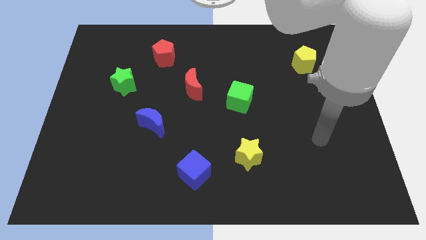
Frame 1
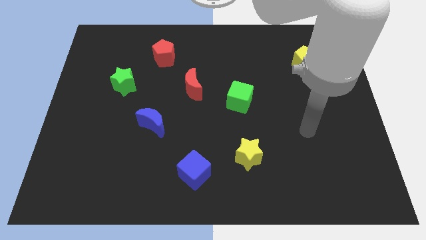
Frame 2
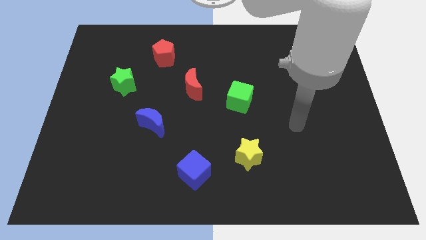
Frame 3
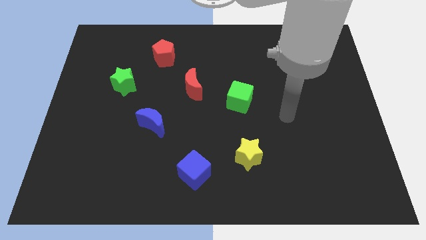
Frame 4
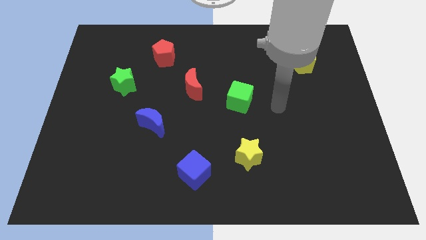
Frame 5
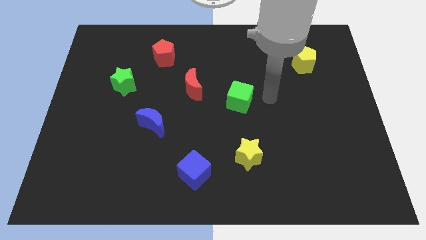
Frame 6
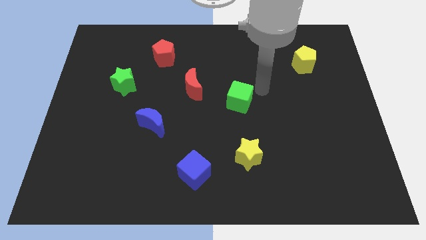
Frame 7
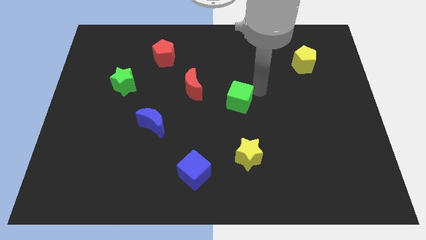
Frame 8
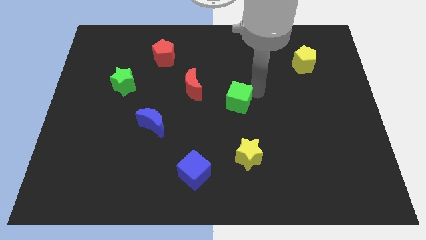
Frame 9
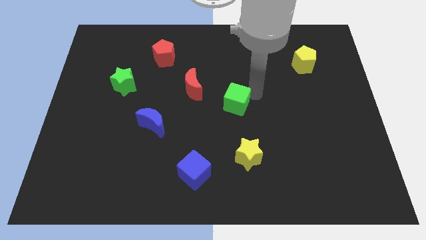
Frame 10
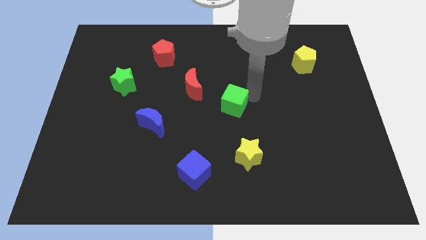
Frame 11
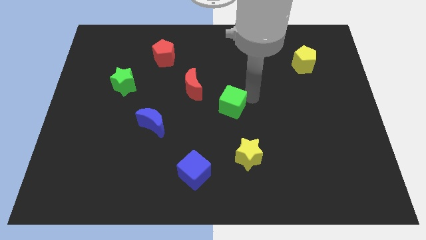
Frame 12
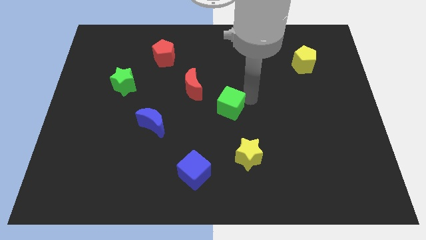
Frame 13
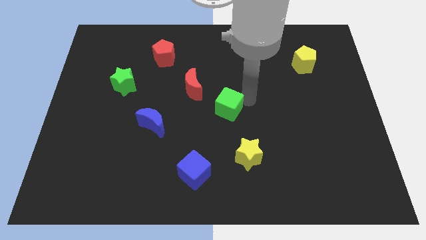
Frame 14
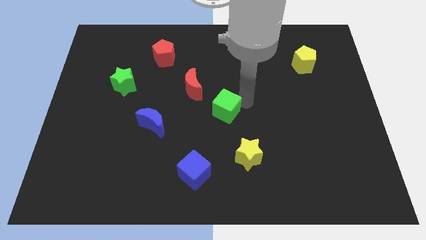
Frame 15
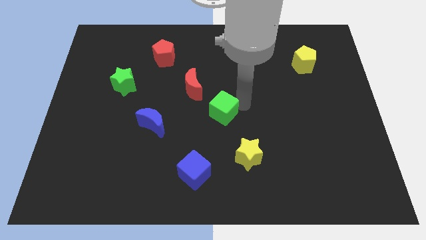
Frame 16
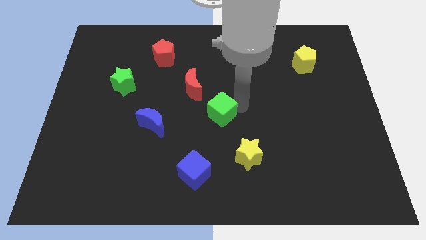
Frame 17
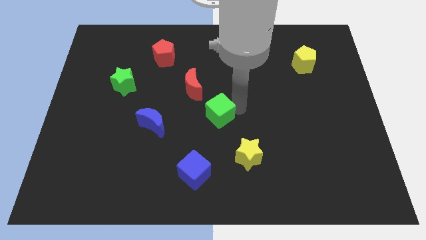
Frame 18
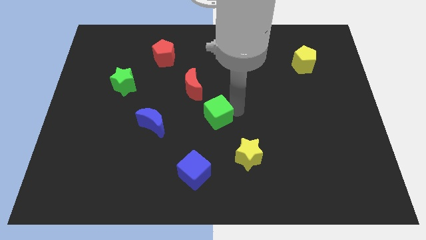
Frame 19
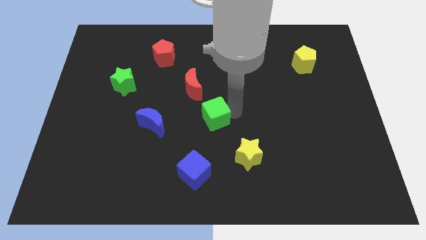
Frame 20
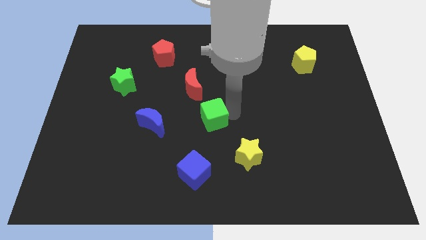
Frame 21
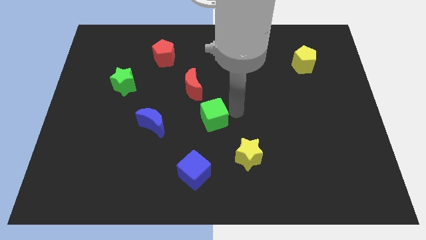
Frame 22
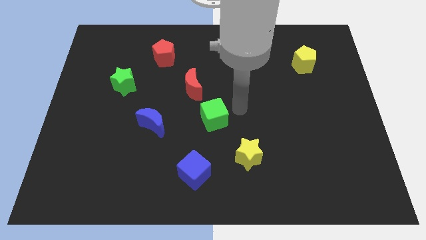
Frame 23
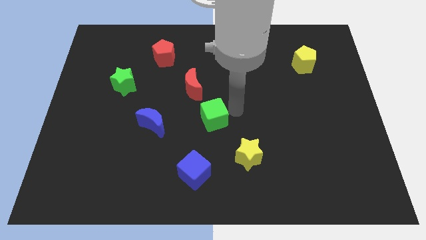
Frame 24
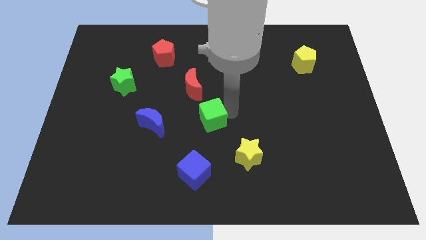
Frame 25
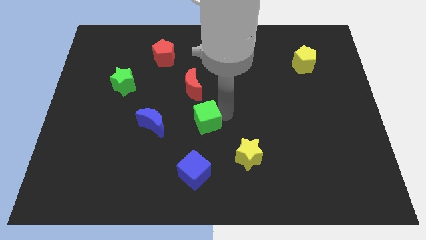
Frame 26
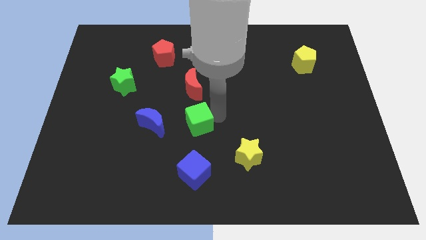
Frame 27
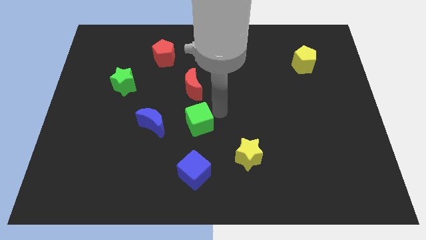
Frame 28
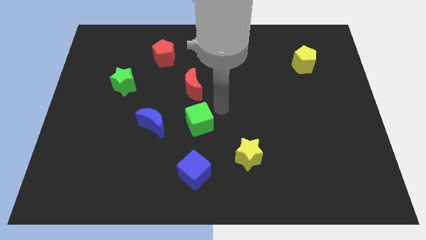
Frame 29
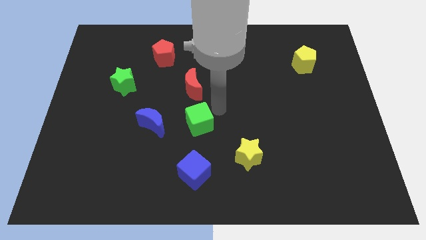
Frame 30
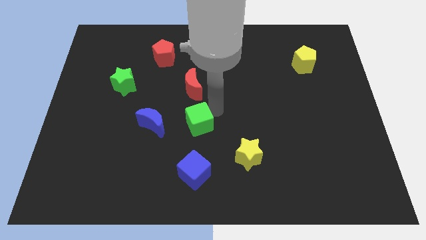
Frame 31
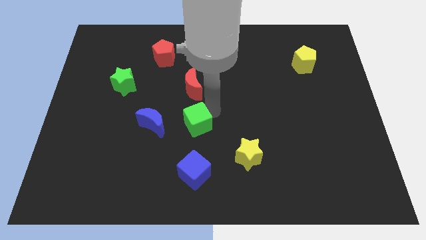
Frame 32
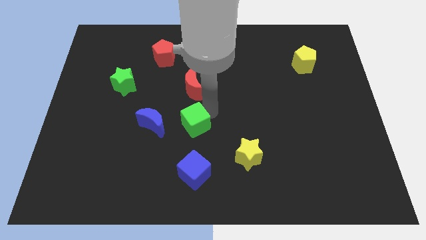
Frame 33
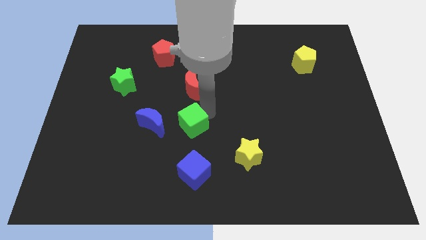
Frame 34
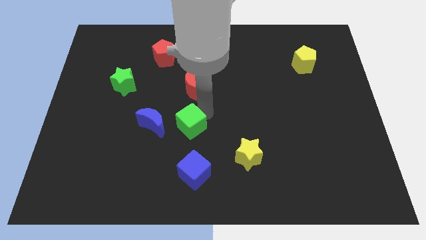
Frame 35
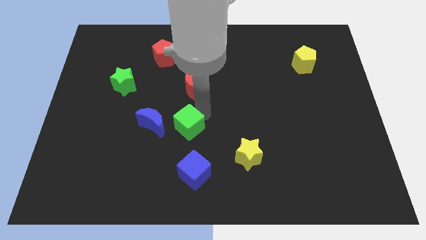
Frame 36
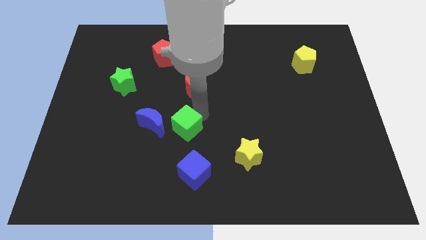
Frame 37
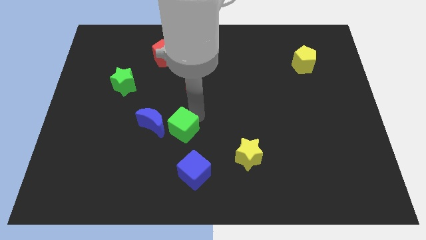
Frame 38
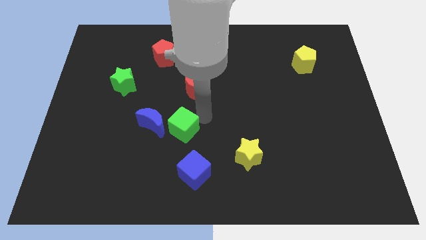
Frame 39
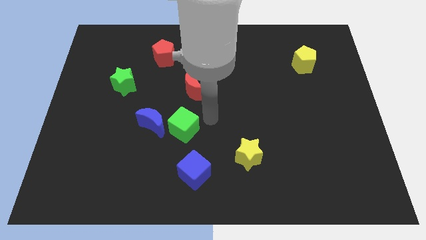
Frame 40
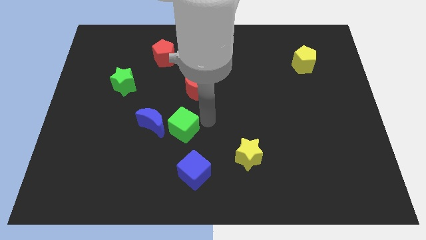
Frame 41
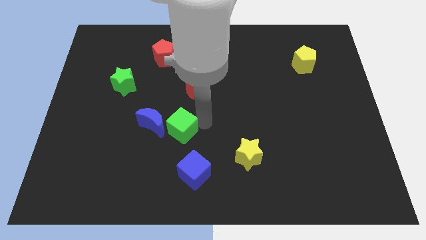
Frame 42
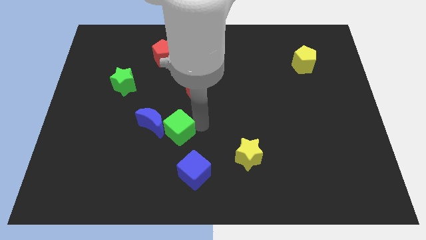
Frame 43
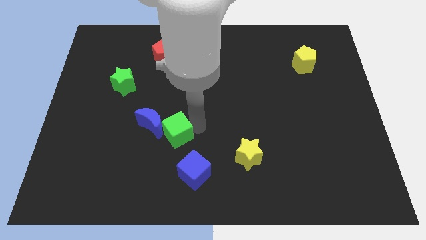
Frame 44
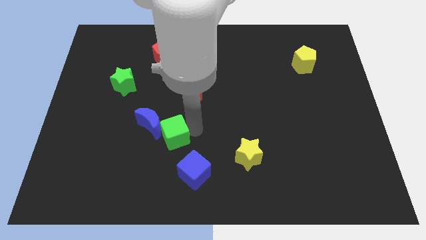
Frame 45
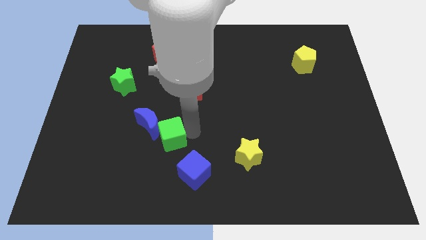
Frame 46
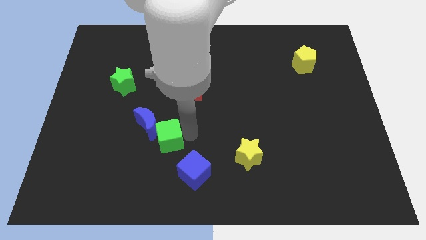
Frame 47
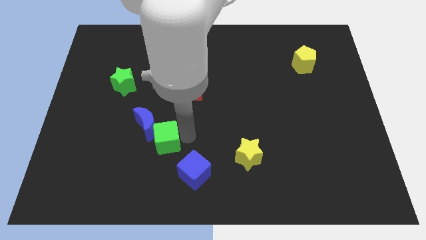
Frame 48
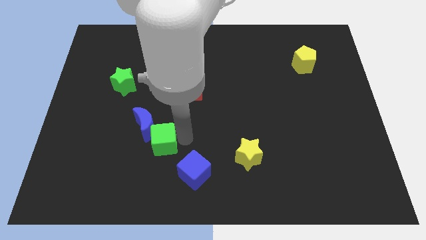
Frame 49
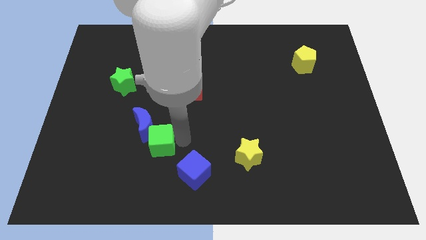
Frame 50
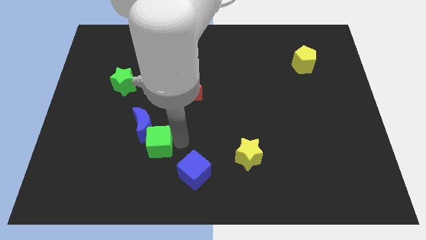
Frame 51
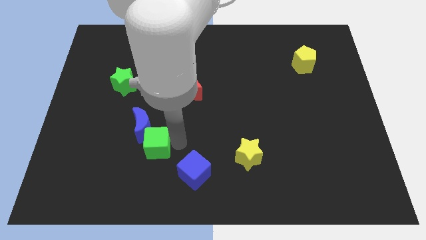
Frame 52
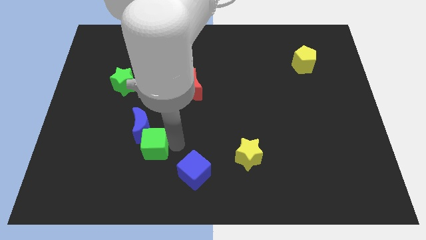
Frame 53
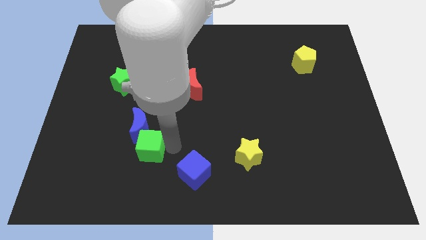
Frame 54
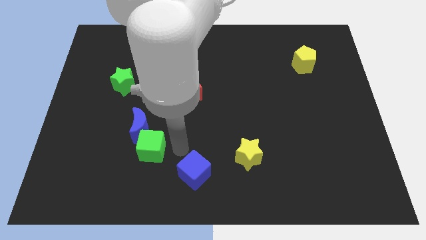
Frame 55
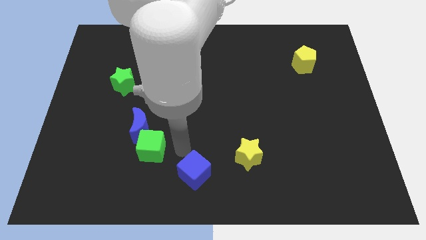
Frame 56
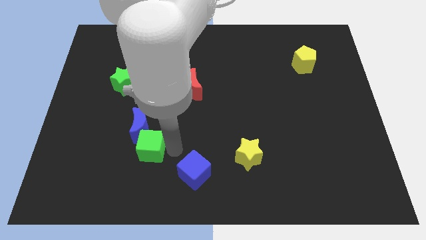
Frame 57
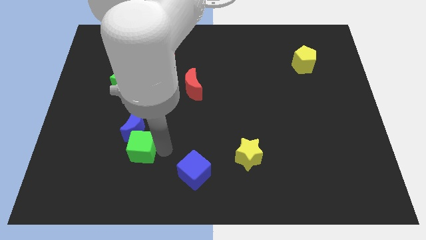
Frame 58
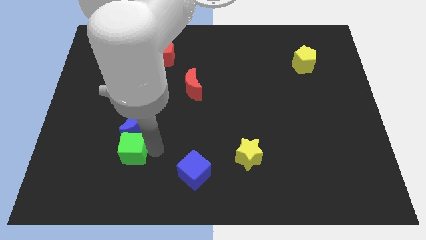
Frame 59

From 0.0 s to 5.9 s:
put the green cube to the bottom left of the blue moon
